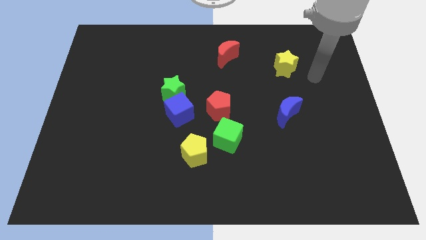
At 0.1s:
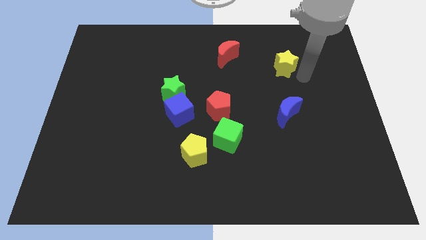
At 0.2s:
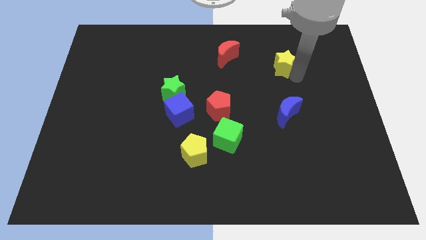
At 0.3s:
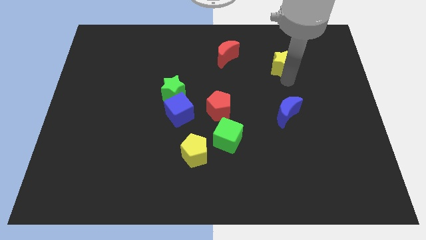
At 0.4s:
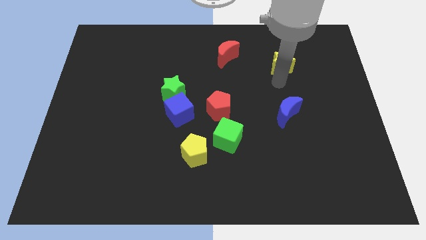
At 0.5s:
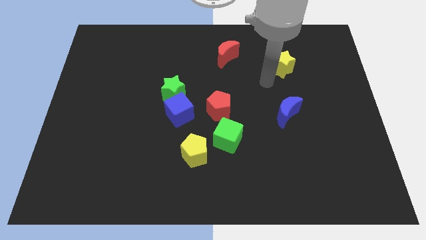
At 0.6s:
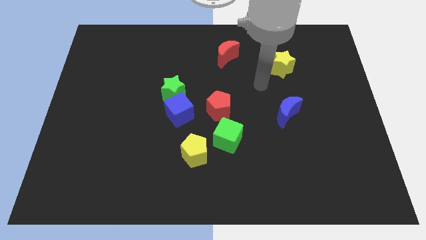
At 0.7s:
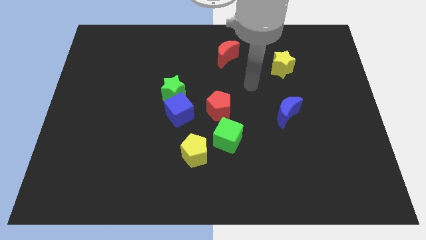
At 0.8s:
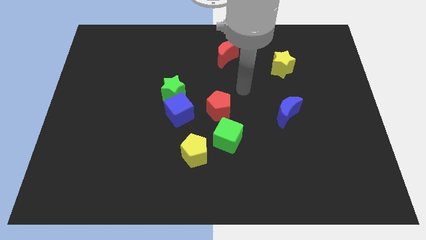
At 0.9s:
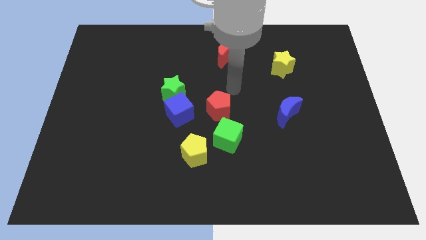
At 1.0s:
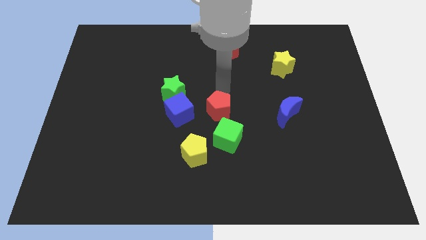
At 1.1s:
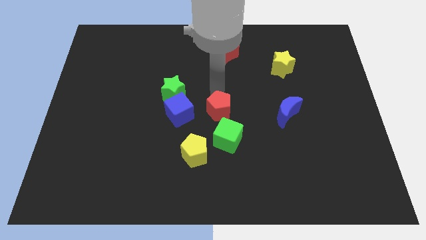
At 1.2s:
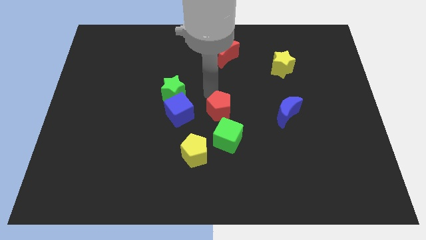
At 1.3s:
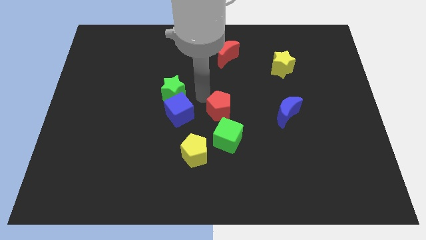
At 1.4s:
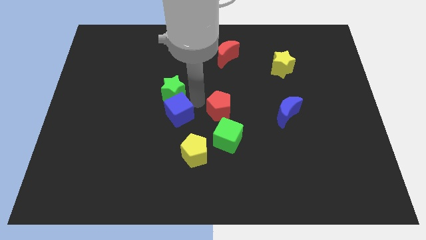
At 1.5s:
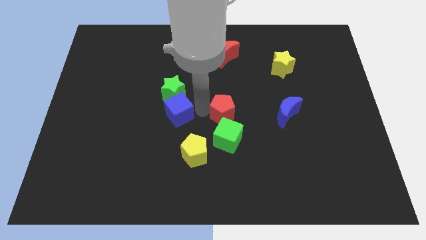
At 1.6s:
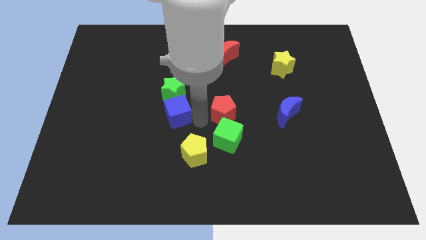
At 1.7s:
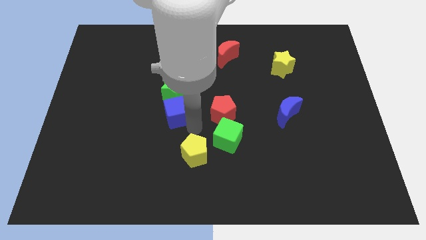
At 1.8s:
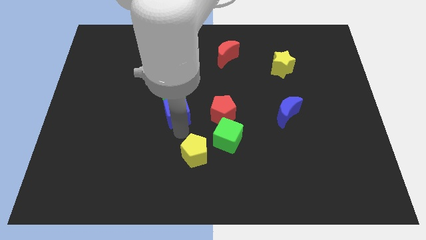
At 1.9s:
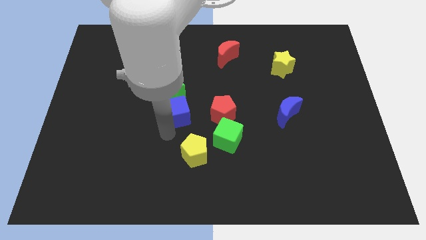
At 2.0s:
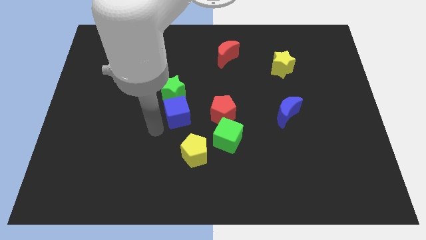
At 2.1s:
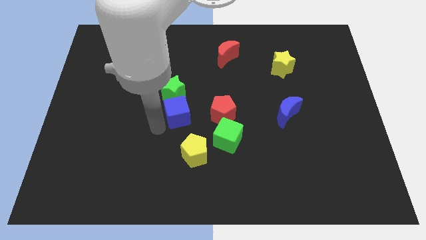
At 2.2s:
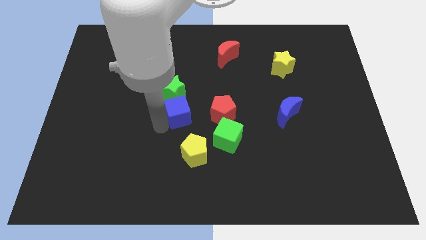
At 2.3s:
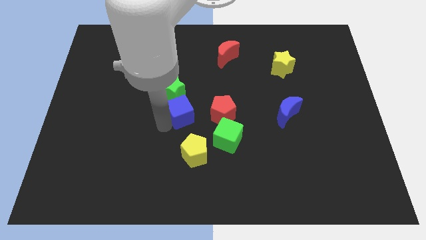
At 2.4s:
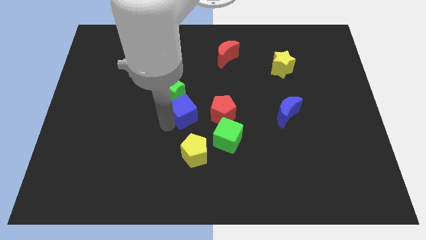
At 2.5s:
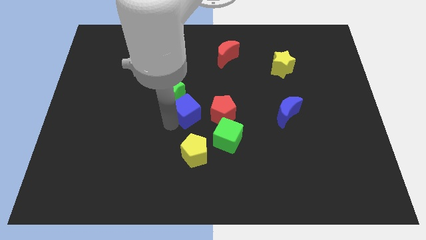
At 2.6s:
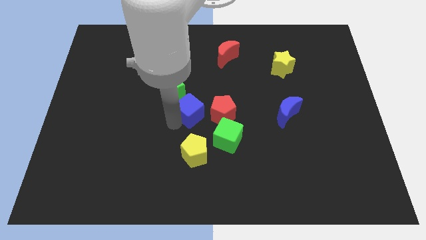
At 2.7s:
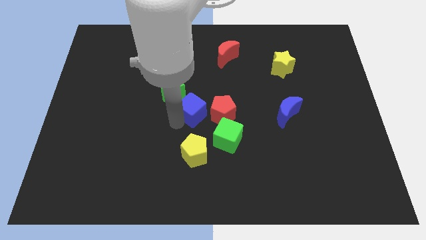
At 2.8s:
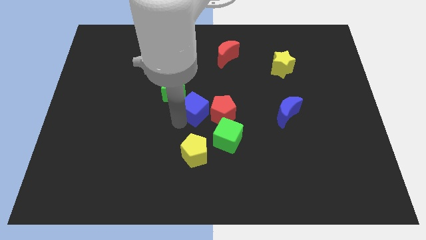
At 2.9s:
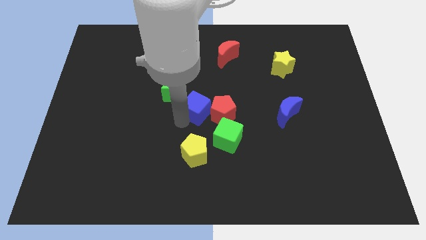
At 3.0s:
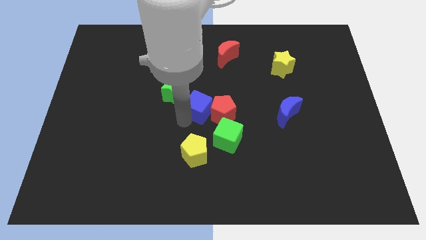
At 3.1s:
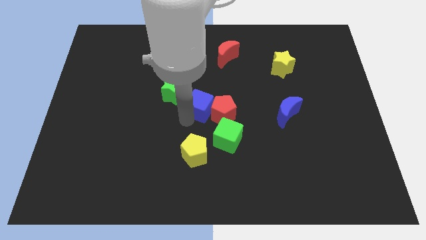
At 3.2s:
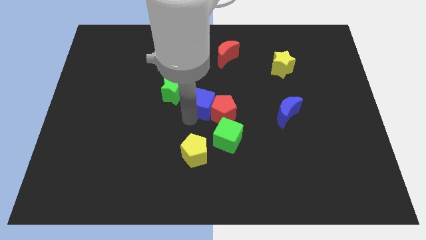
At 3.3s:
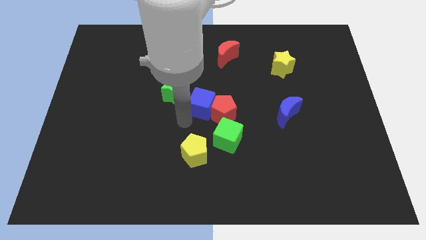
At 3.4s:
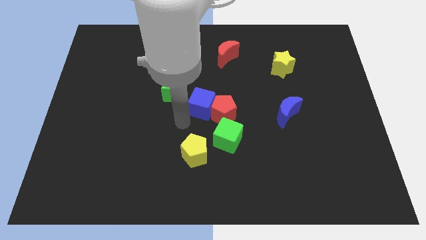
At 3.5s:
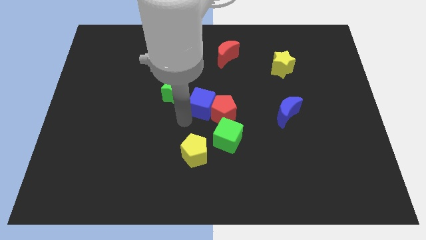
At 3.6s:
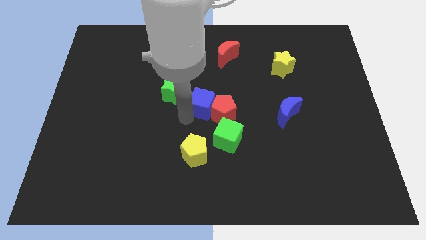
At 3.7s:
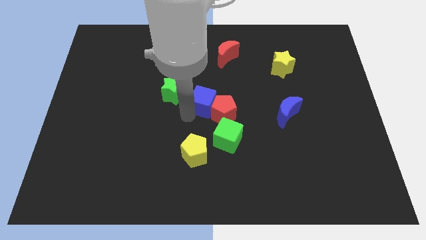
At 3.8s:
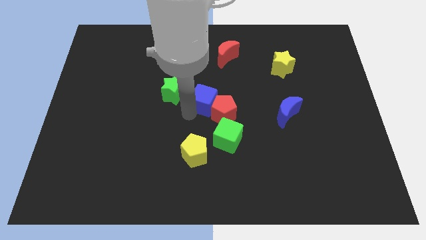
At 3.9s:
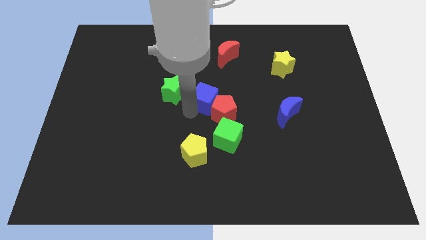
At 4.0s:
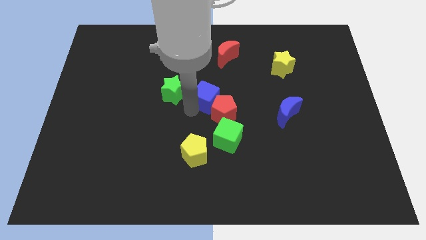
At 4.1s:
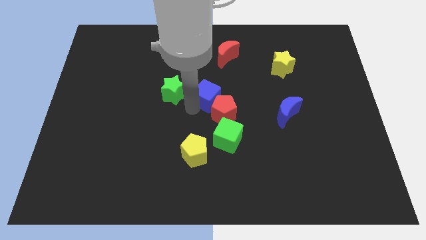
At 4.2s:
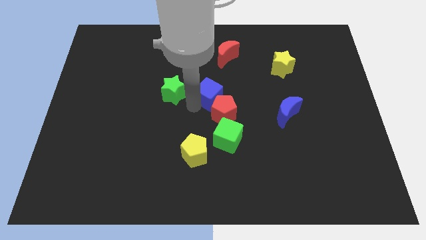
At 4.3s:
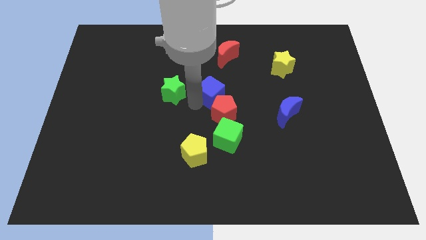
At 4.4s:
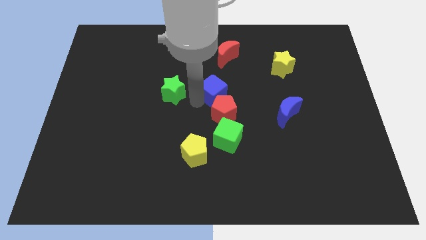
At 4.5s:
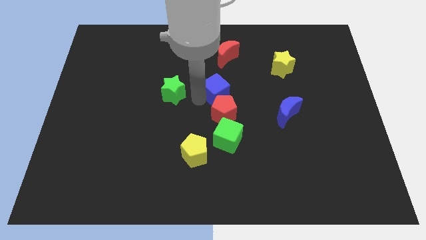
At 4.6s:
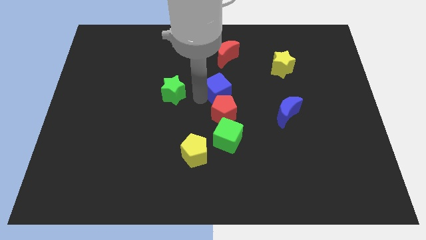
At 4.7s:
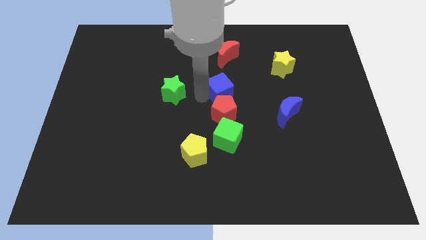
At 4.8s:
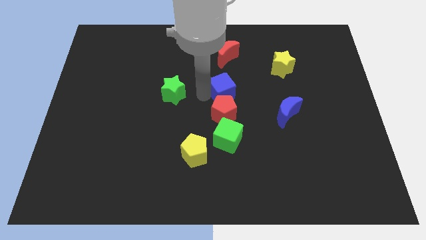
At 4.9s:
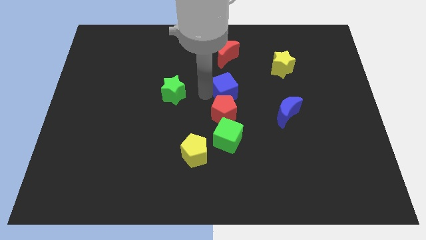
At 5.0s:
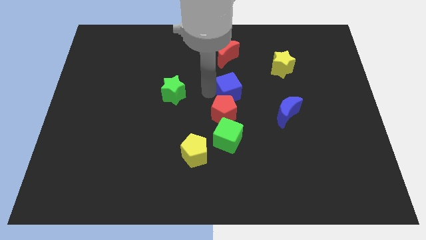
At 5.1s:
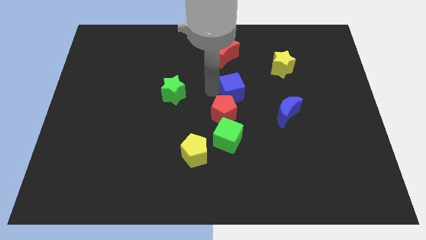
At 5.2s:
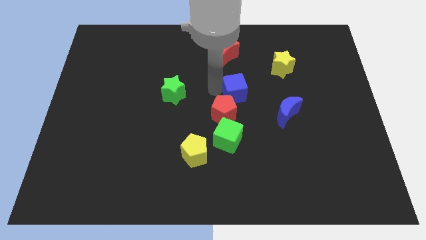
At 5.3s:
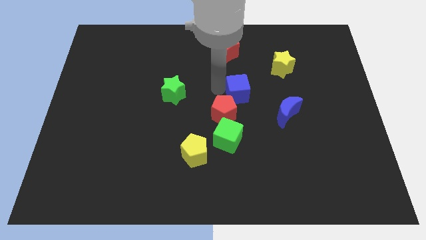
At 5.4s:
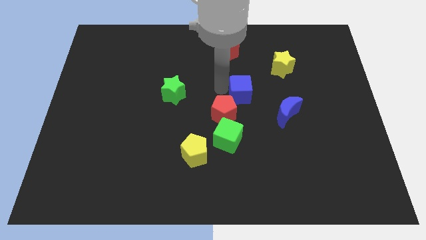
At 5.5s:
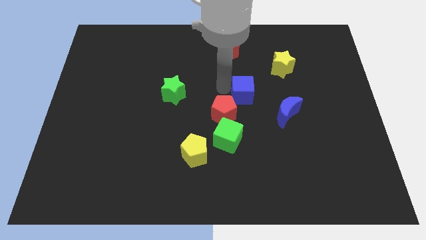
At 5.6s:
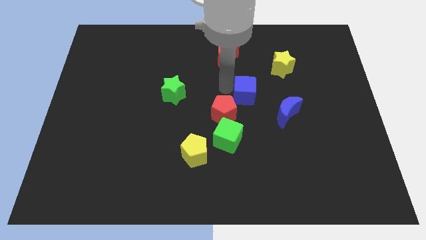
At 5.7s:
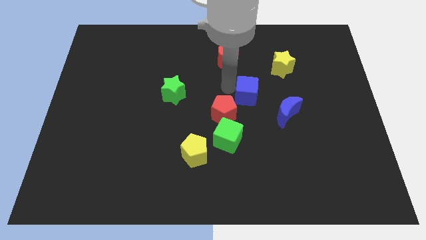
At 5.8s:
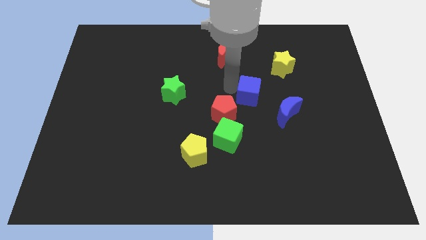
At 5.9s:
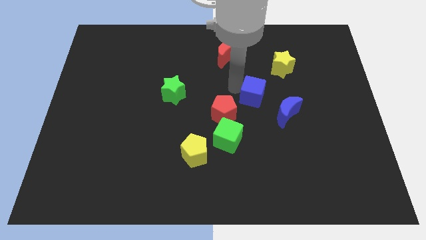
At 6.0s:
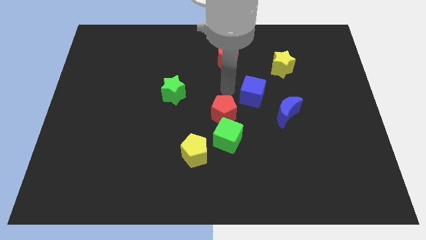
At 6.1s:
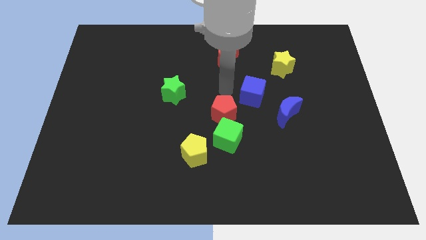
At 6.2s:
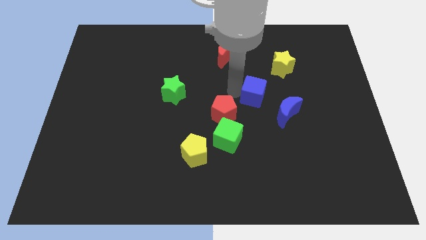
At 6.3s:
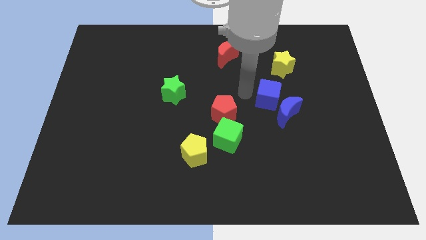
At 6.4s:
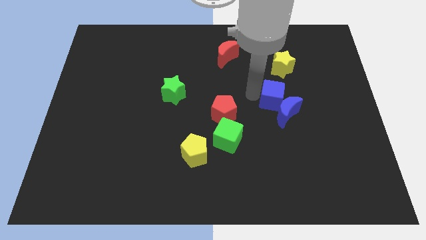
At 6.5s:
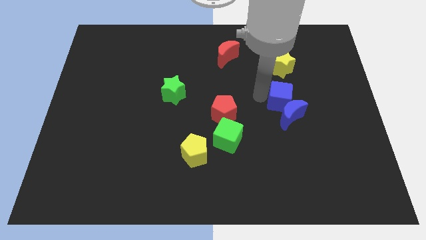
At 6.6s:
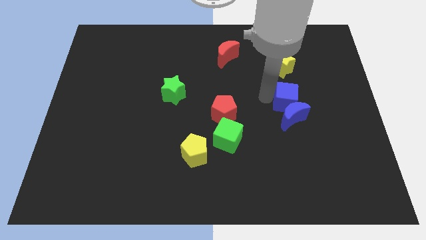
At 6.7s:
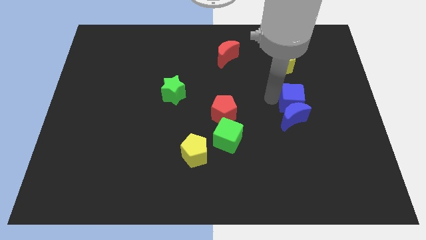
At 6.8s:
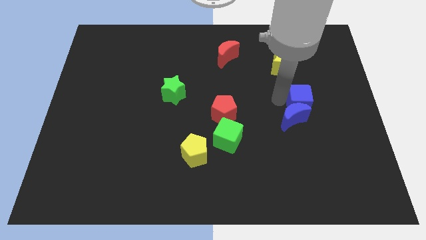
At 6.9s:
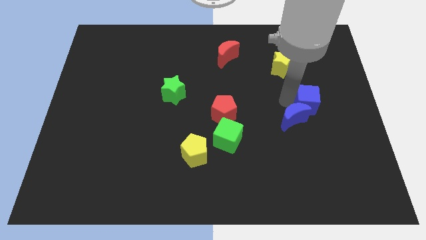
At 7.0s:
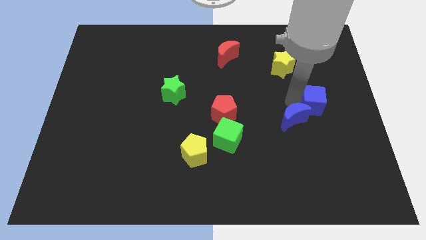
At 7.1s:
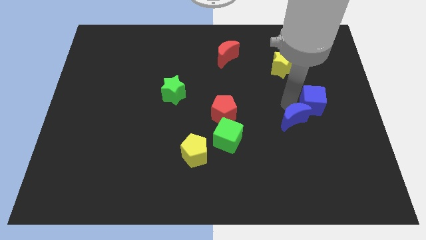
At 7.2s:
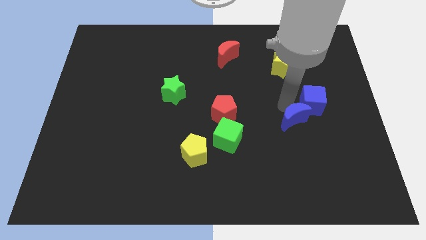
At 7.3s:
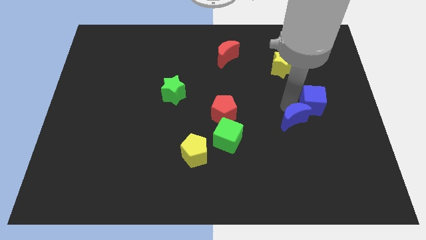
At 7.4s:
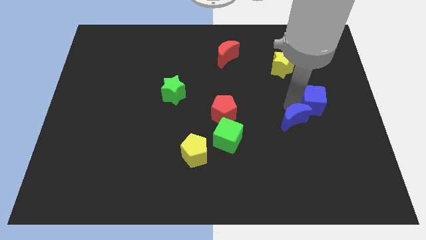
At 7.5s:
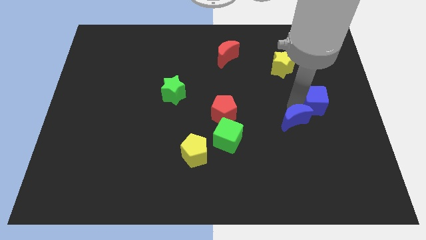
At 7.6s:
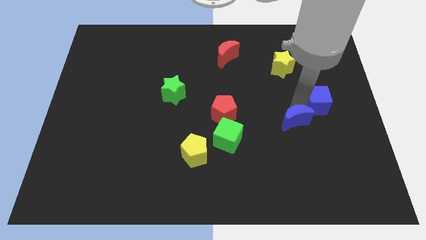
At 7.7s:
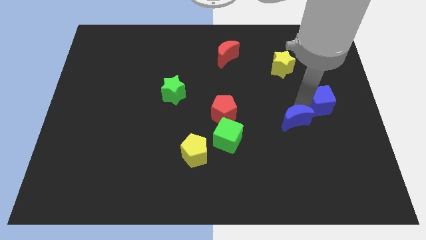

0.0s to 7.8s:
move the blue cube to the center right
